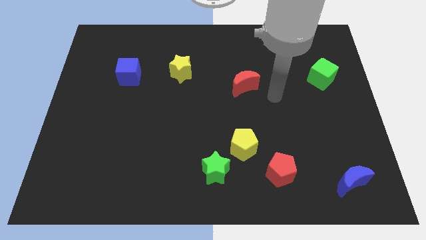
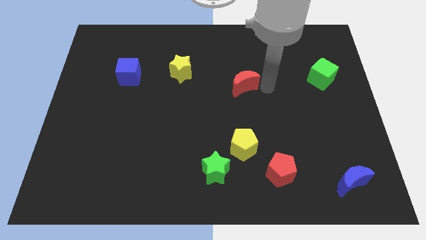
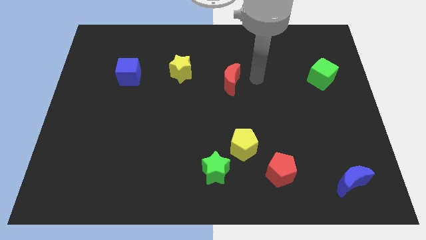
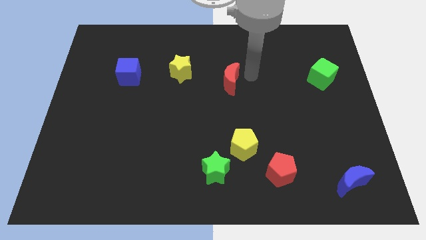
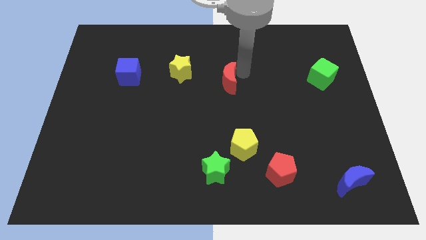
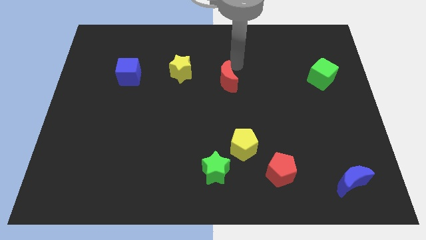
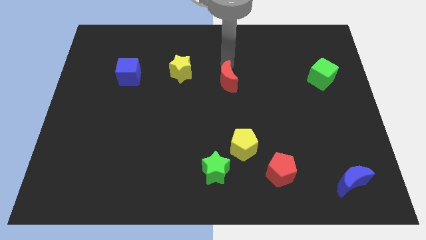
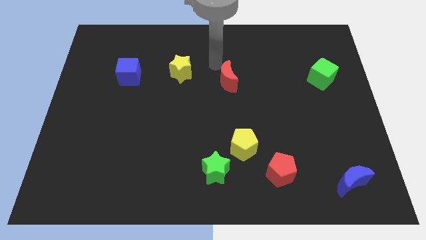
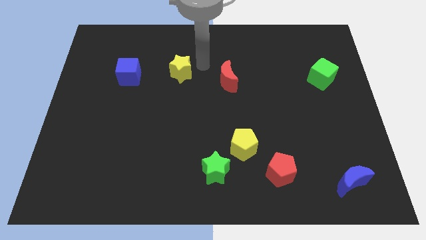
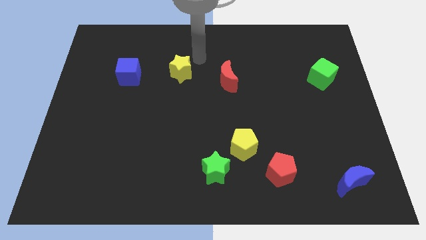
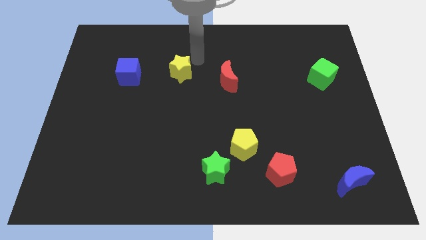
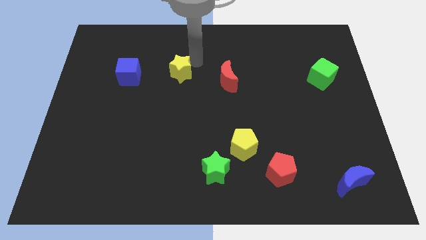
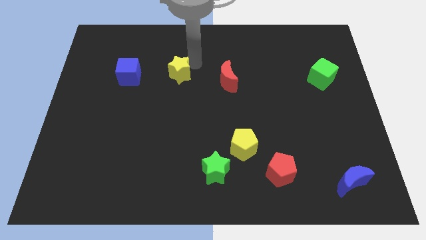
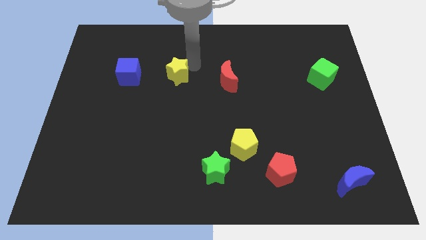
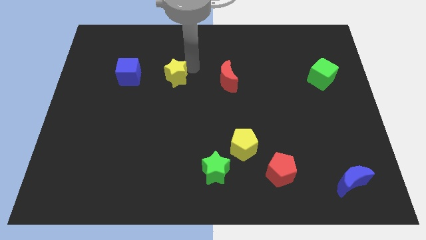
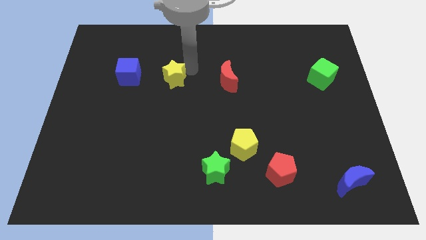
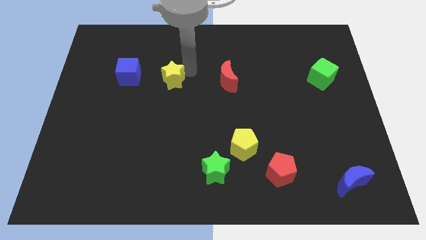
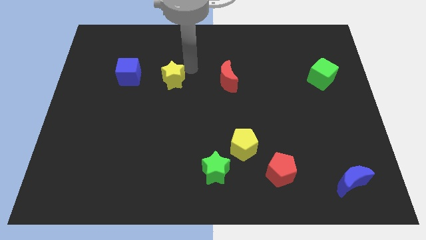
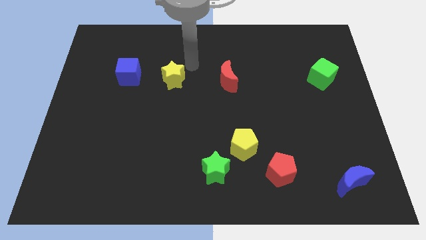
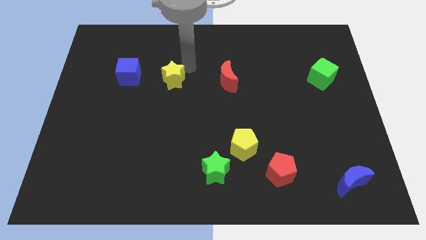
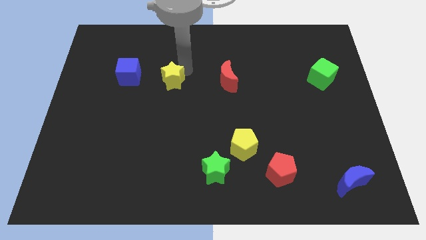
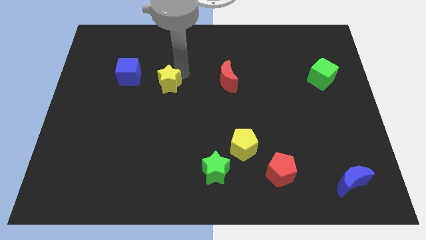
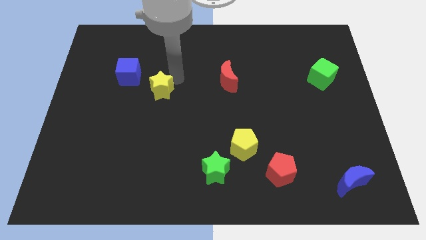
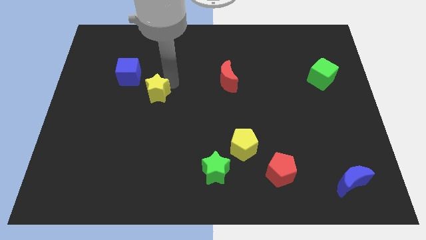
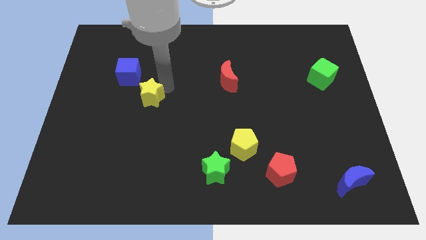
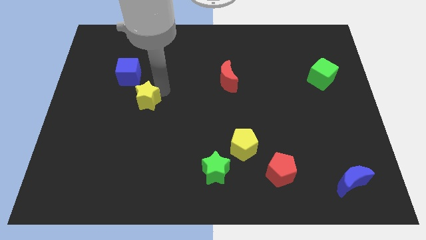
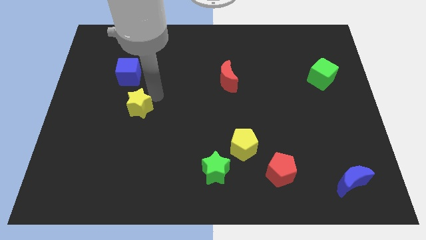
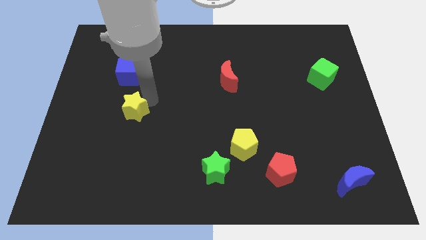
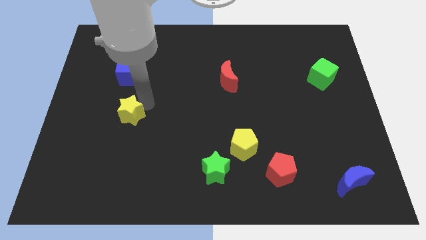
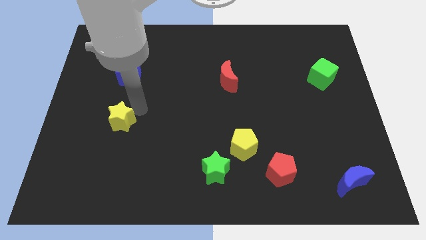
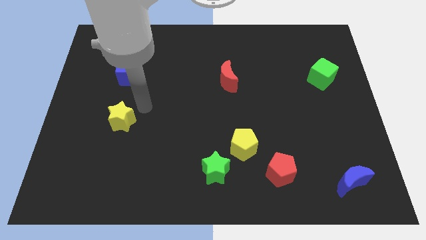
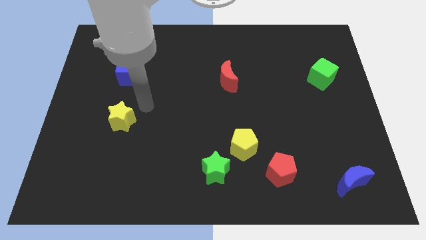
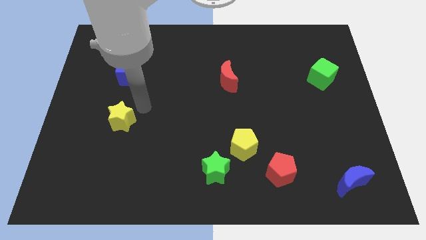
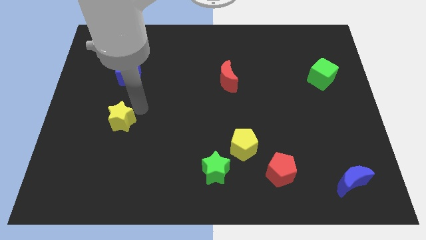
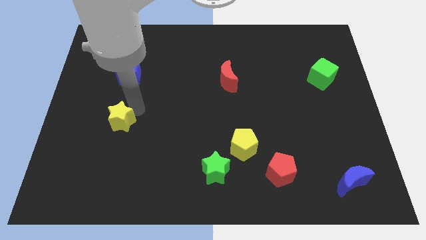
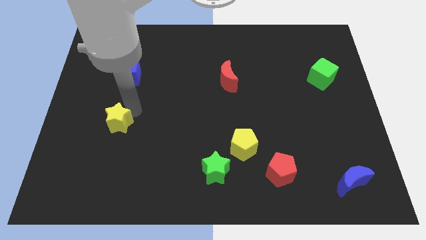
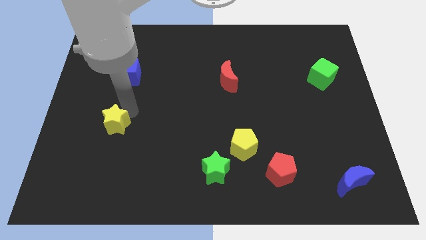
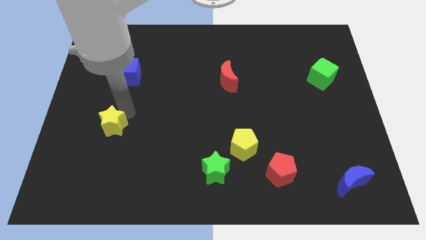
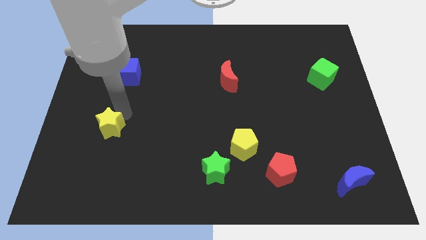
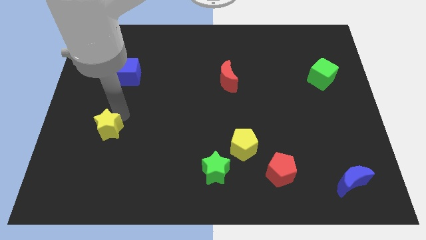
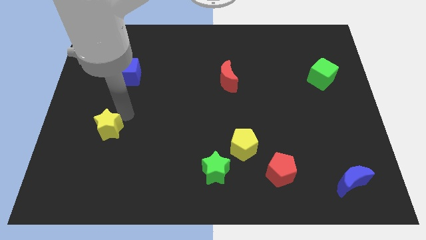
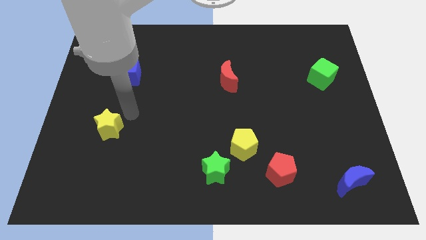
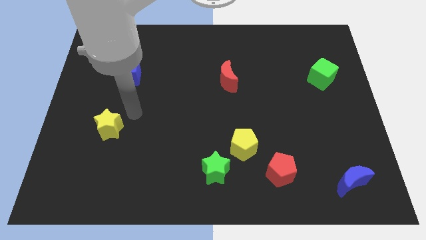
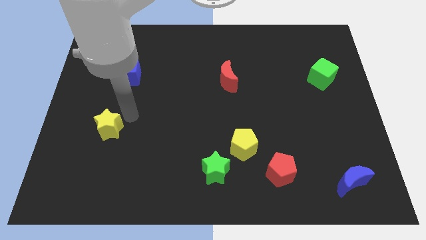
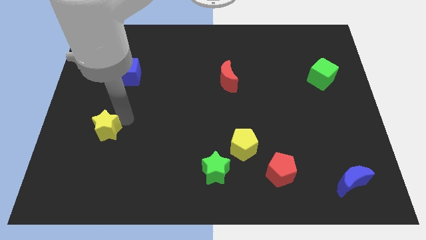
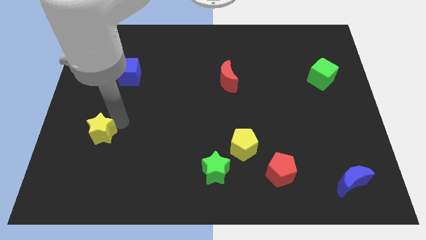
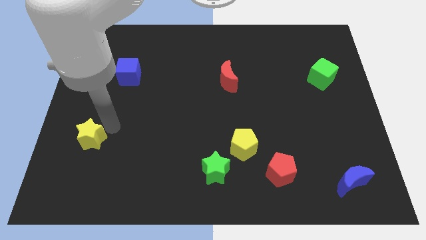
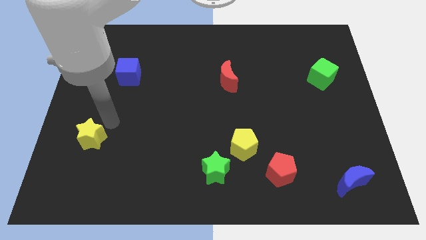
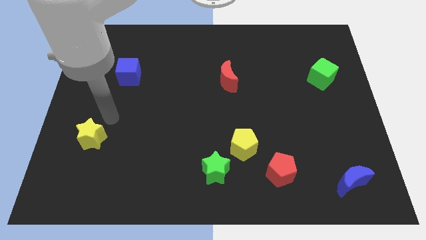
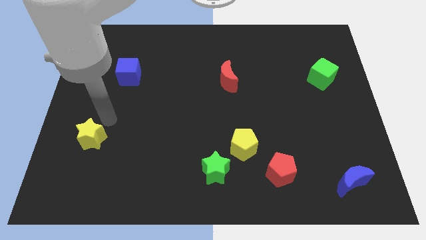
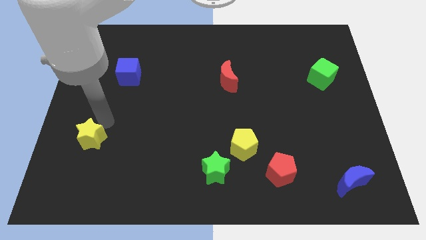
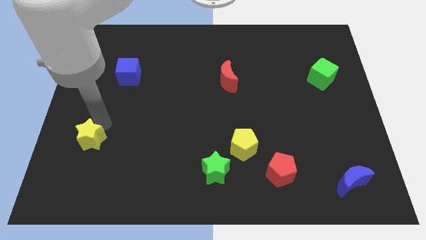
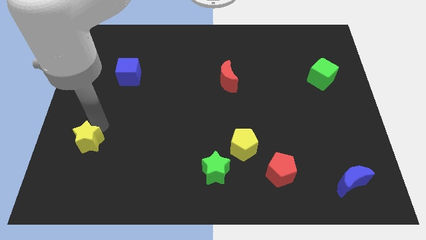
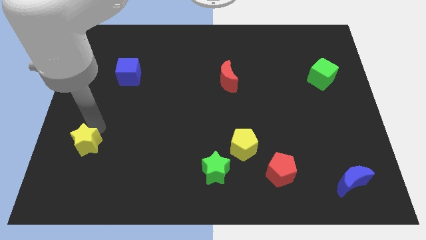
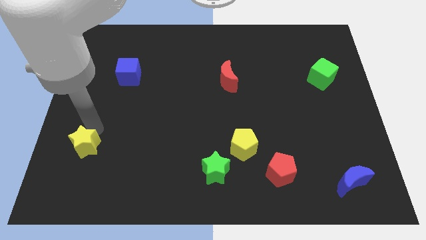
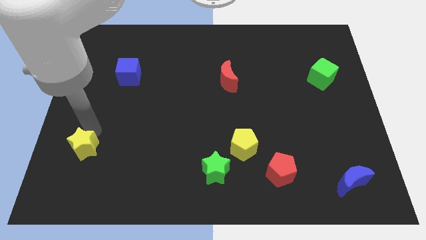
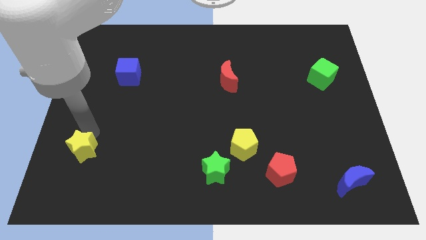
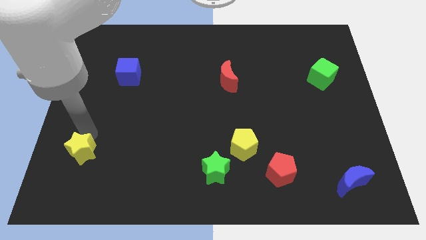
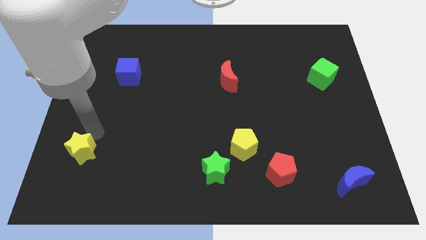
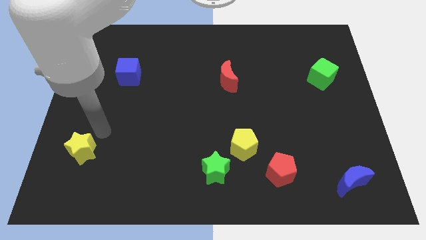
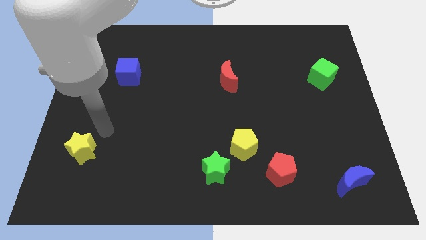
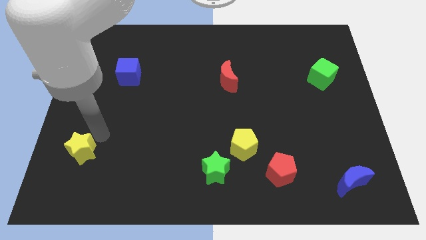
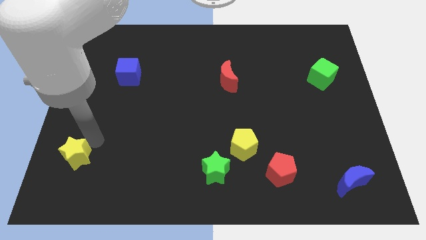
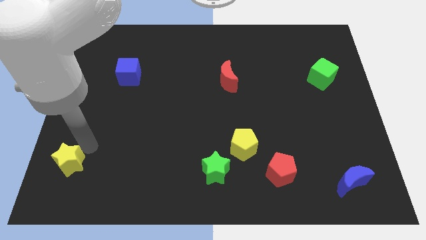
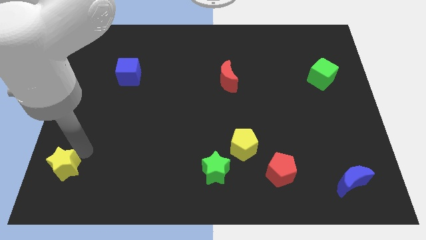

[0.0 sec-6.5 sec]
slide the yellow star to the lower left corner

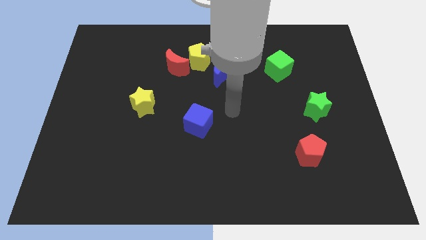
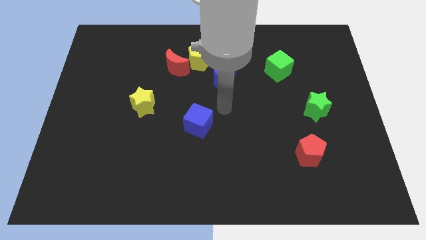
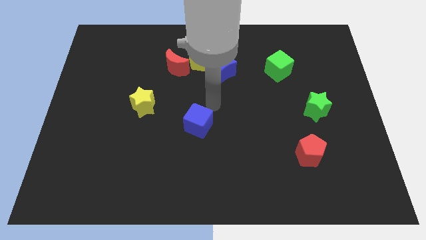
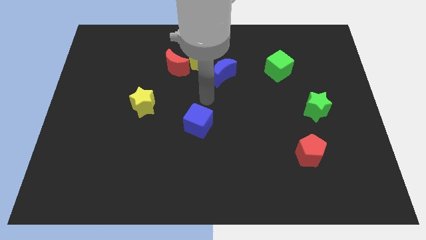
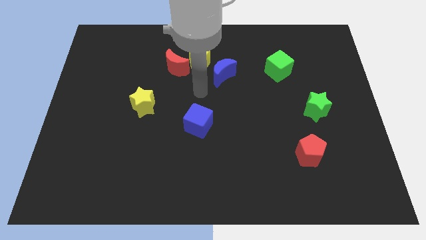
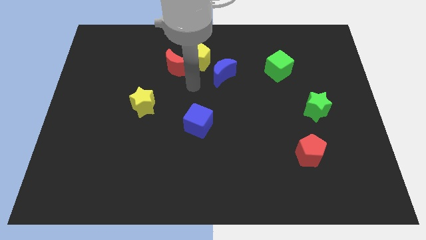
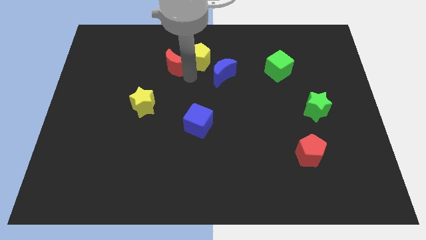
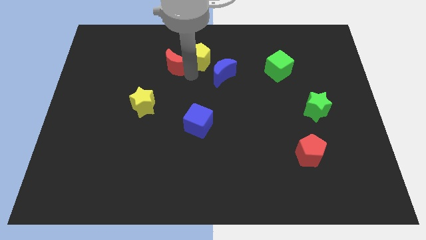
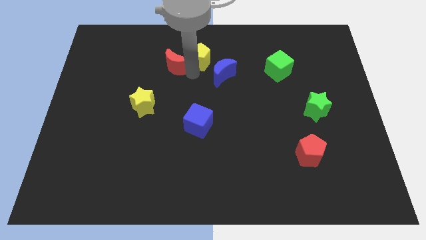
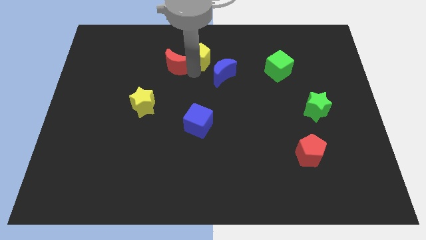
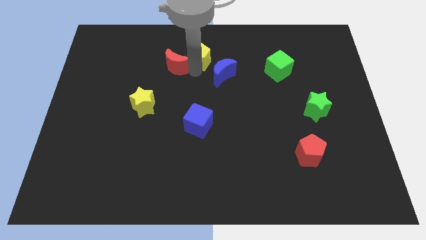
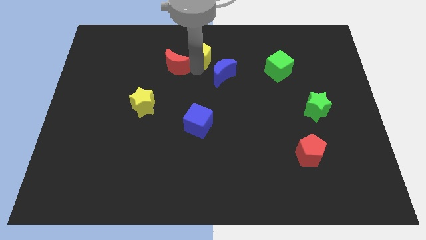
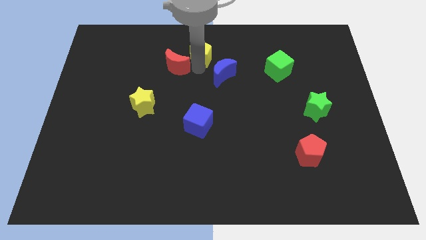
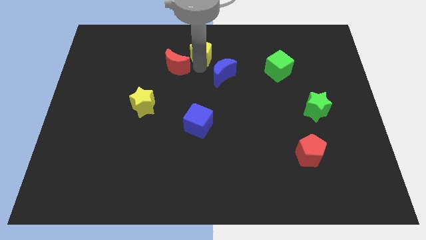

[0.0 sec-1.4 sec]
push the yellow pentagon to the top
